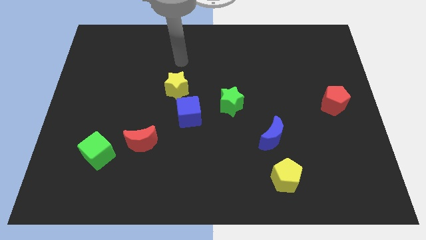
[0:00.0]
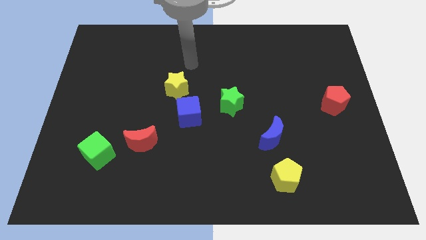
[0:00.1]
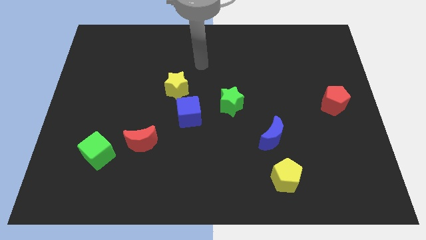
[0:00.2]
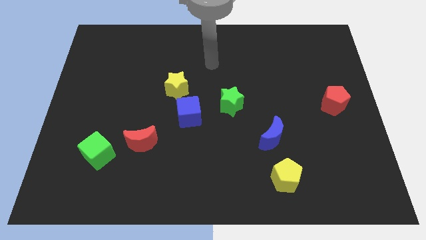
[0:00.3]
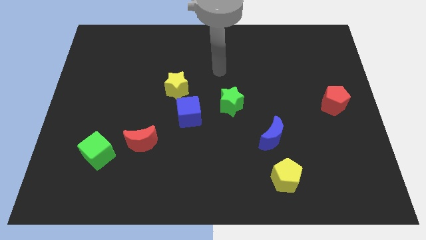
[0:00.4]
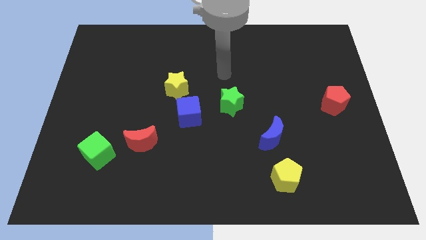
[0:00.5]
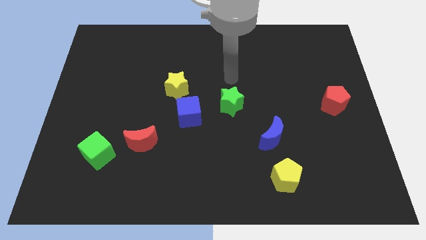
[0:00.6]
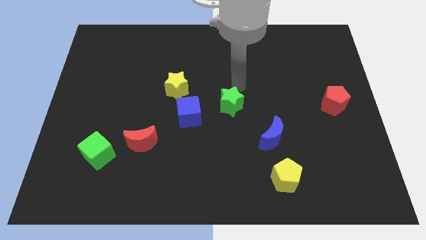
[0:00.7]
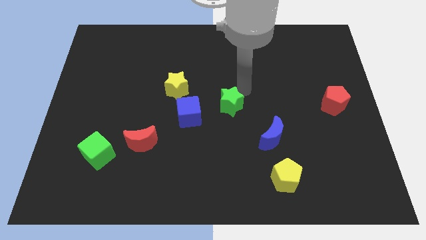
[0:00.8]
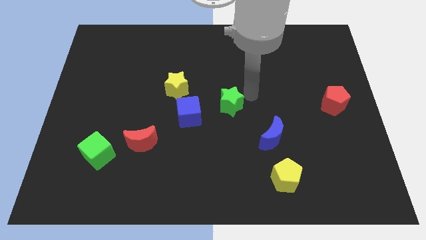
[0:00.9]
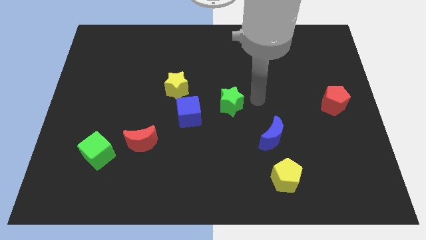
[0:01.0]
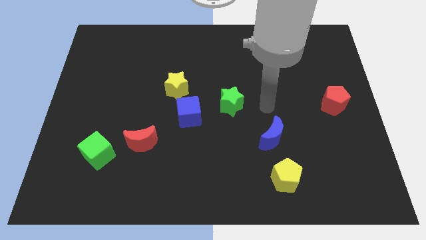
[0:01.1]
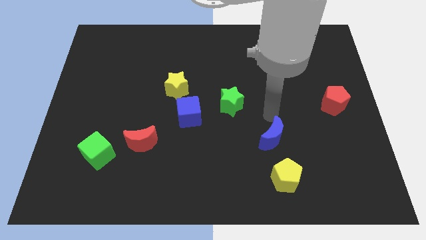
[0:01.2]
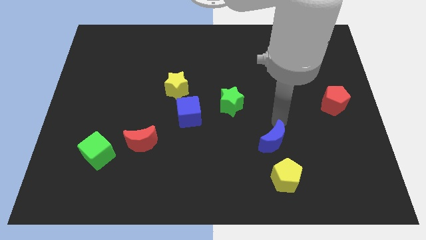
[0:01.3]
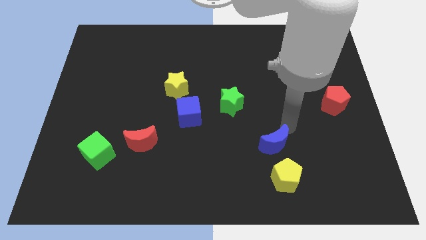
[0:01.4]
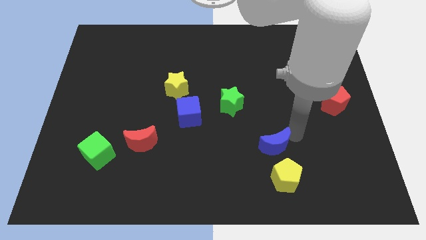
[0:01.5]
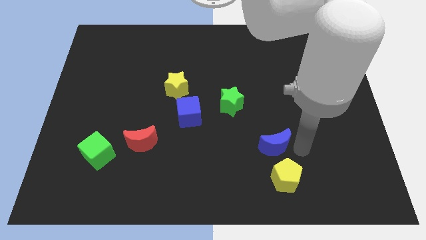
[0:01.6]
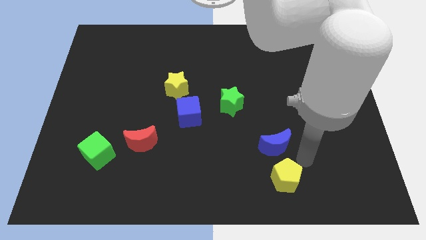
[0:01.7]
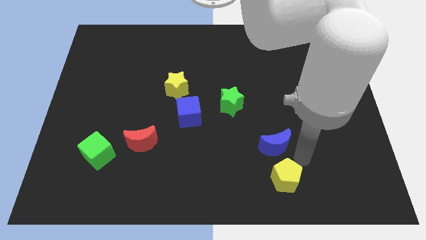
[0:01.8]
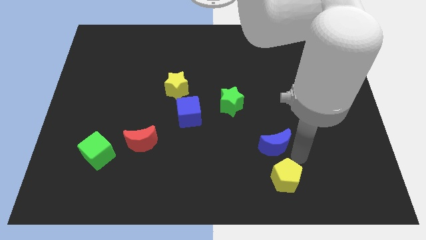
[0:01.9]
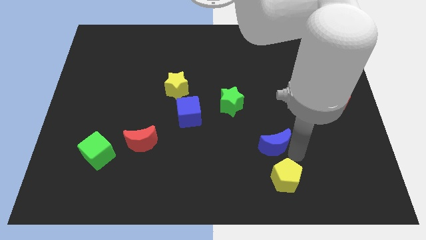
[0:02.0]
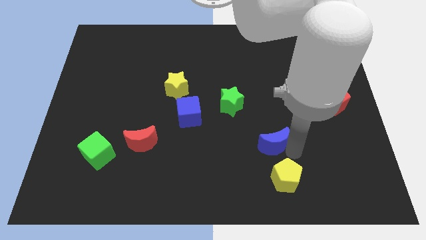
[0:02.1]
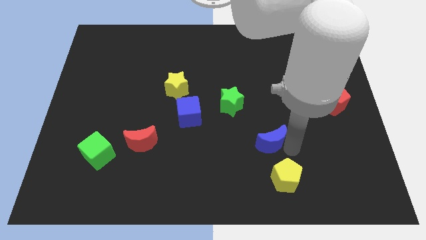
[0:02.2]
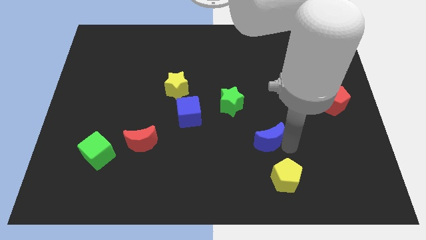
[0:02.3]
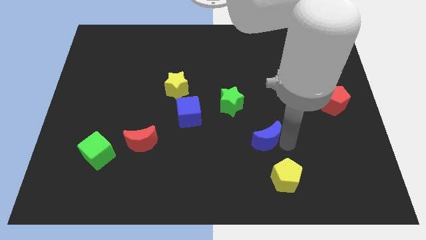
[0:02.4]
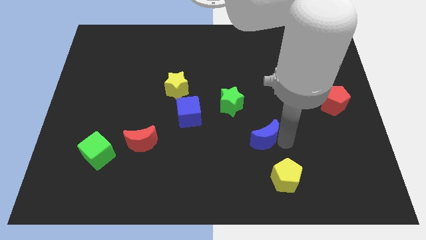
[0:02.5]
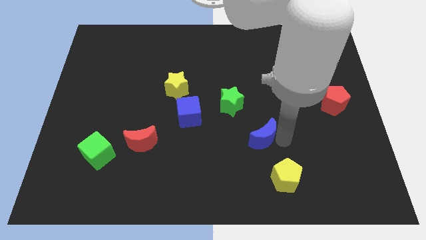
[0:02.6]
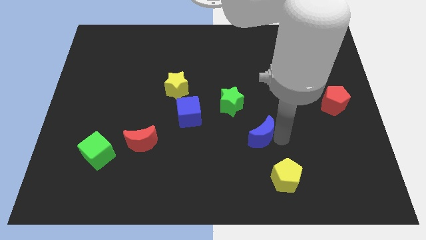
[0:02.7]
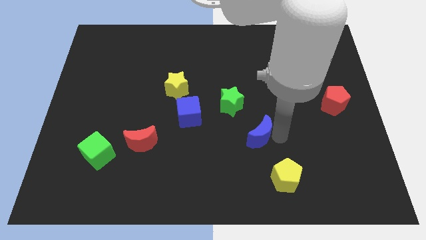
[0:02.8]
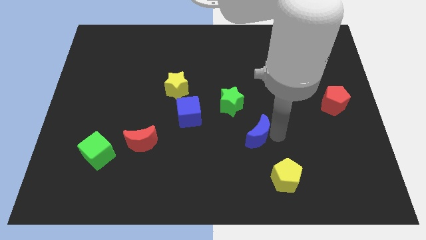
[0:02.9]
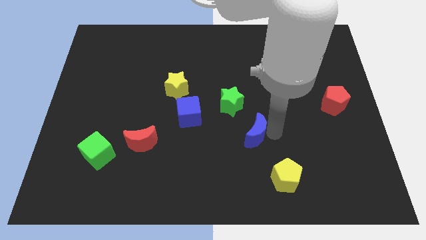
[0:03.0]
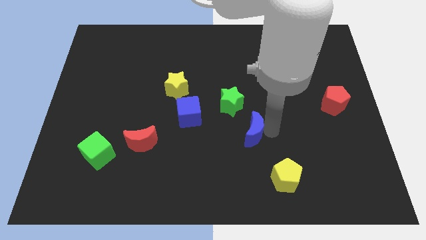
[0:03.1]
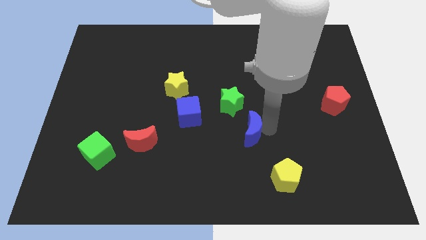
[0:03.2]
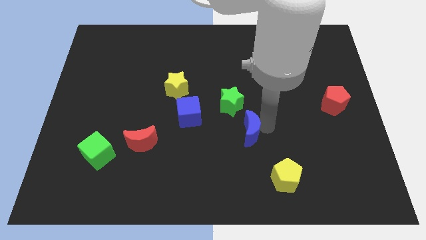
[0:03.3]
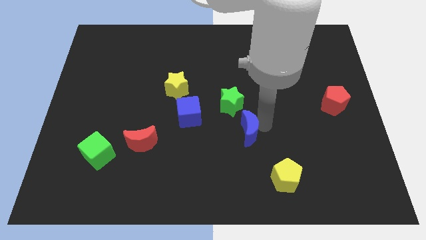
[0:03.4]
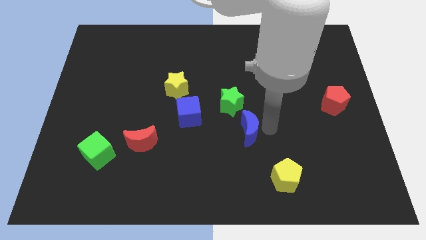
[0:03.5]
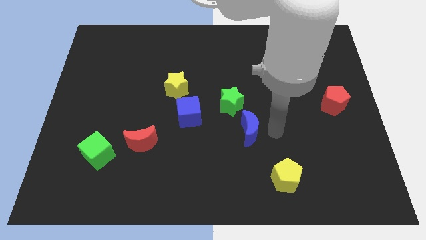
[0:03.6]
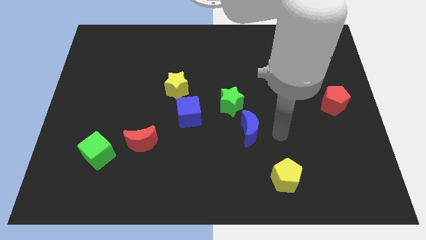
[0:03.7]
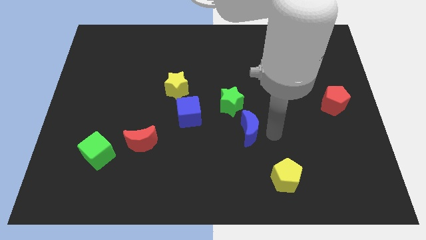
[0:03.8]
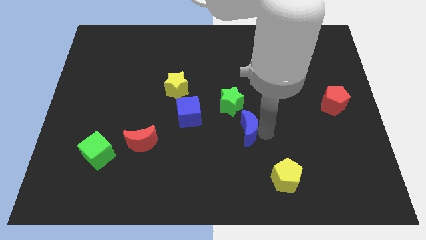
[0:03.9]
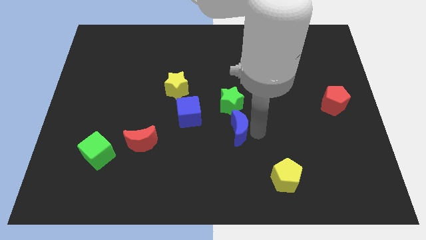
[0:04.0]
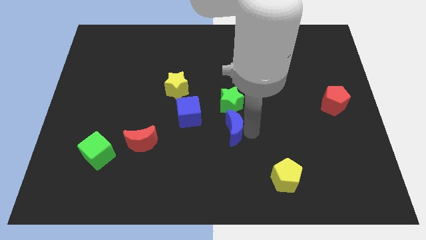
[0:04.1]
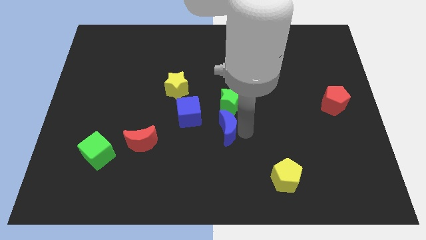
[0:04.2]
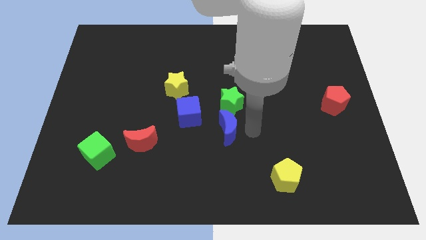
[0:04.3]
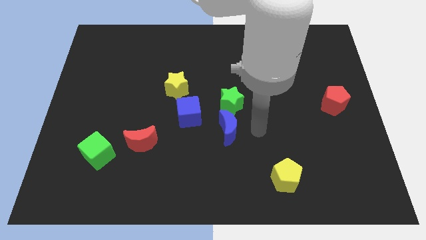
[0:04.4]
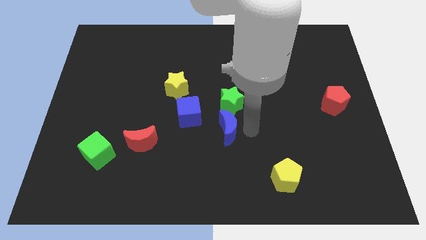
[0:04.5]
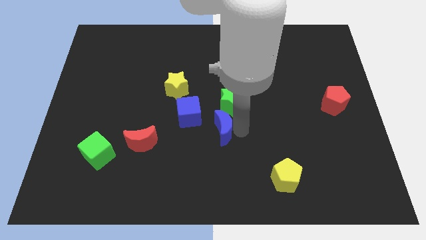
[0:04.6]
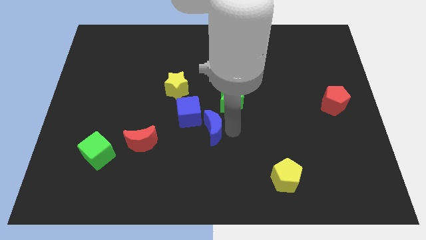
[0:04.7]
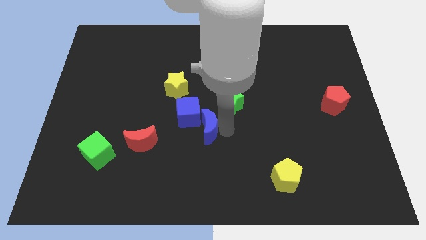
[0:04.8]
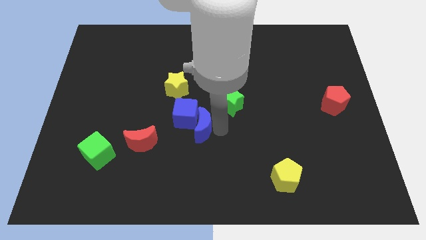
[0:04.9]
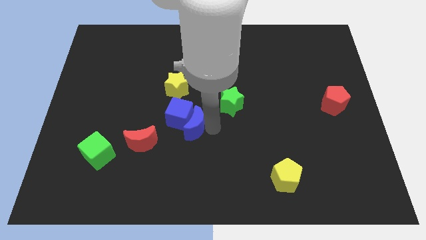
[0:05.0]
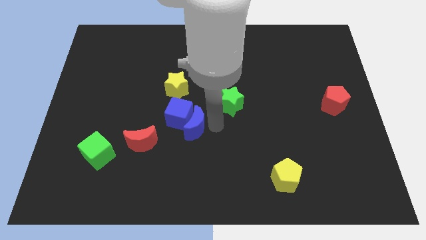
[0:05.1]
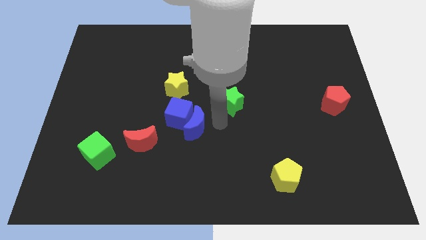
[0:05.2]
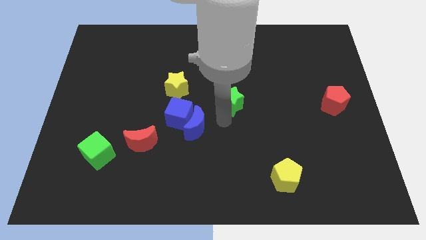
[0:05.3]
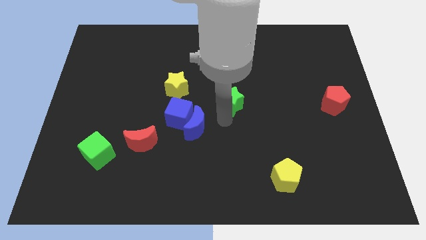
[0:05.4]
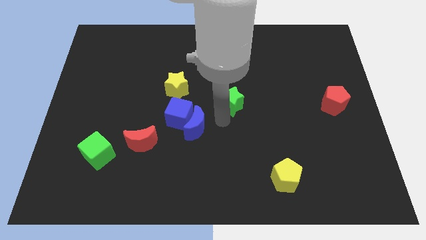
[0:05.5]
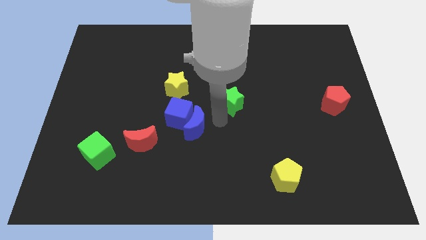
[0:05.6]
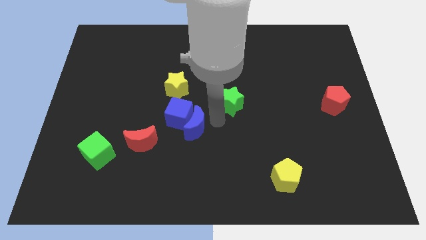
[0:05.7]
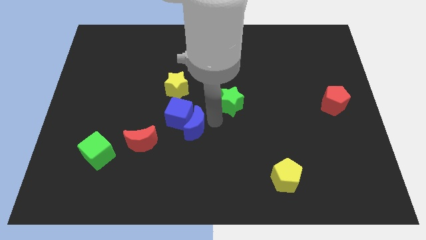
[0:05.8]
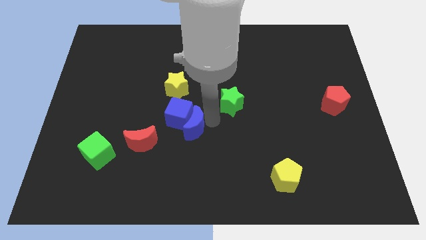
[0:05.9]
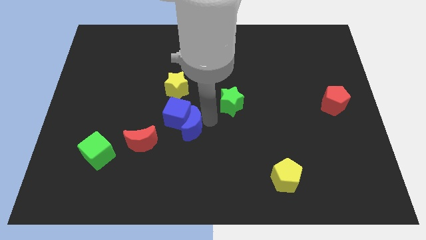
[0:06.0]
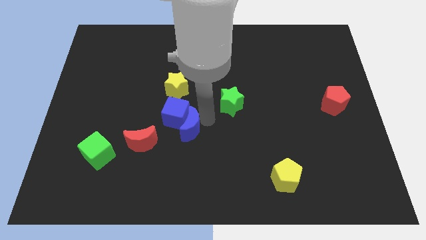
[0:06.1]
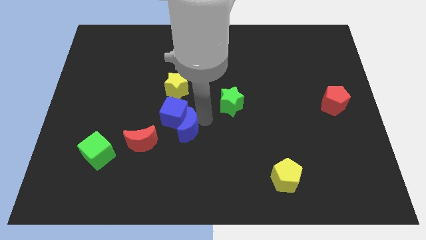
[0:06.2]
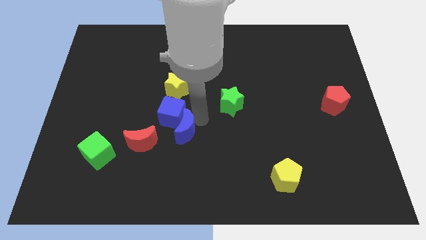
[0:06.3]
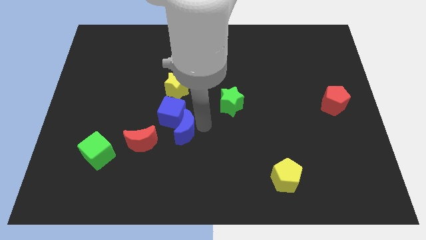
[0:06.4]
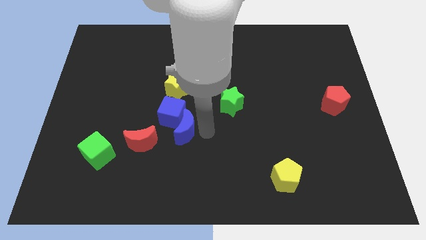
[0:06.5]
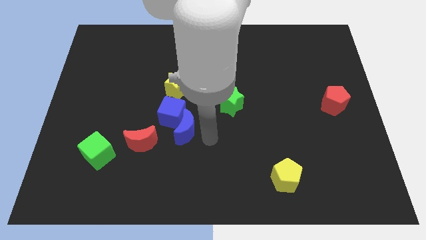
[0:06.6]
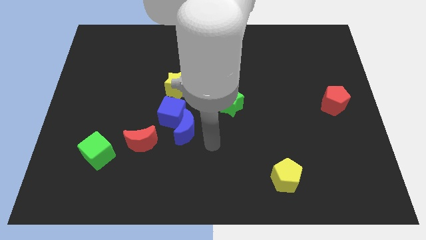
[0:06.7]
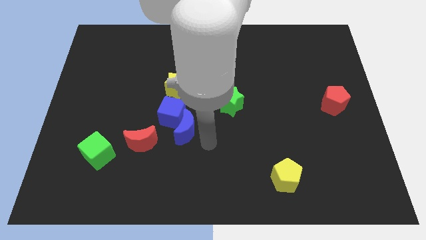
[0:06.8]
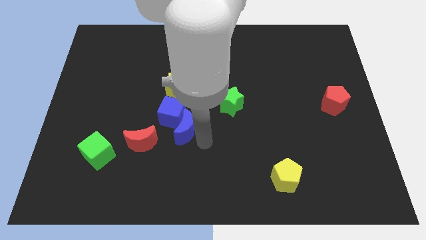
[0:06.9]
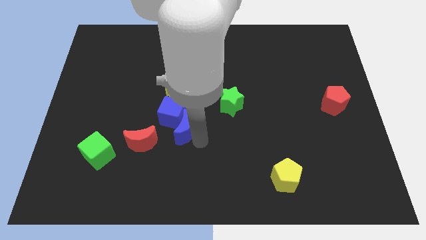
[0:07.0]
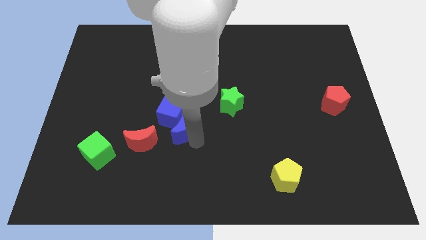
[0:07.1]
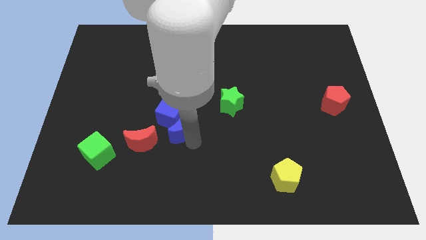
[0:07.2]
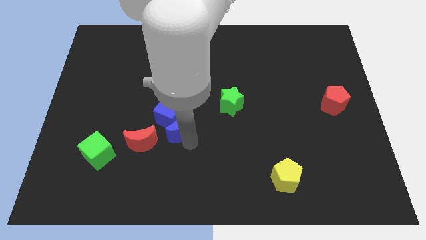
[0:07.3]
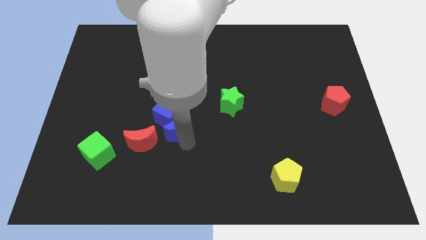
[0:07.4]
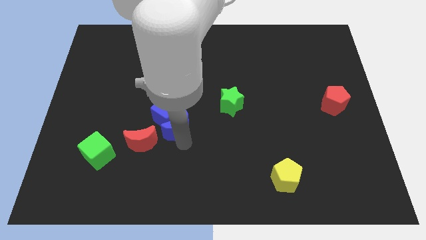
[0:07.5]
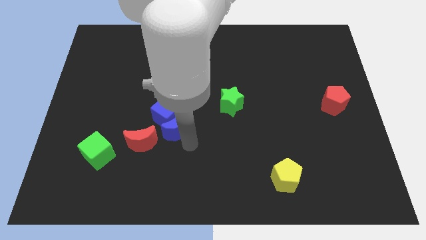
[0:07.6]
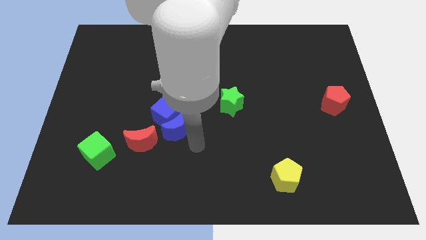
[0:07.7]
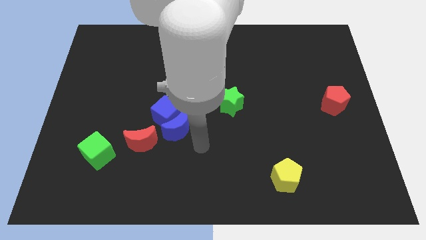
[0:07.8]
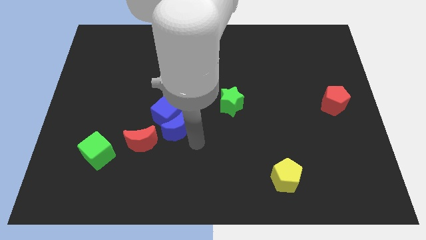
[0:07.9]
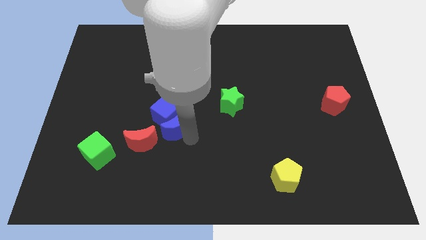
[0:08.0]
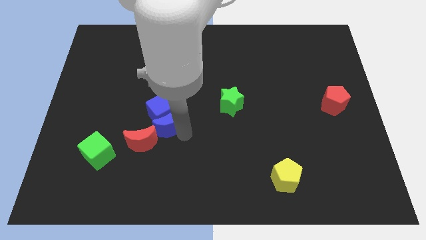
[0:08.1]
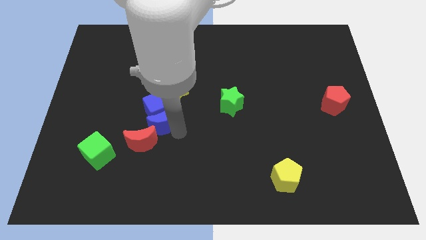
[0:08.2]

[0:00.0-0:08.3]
move the blue moon above the red moon
